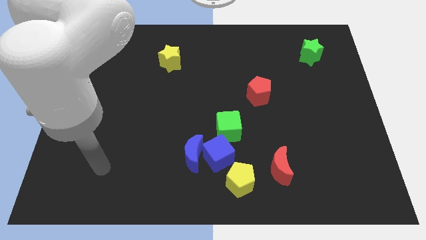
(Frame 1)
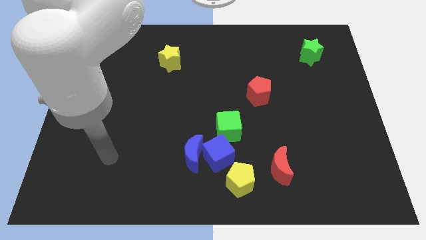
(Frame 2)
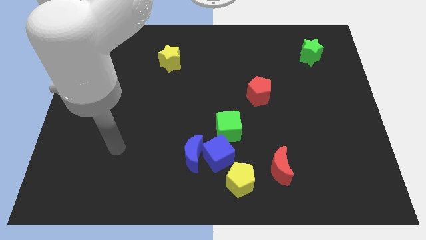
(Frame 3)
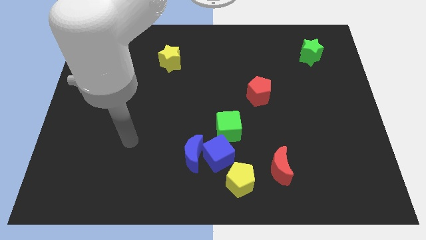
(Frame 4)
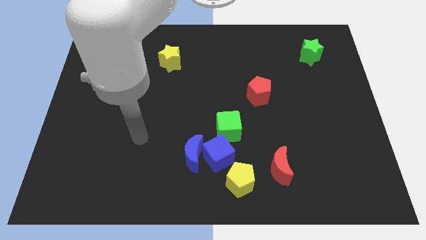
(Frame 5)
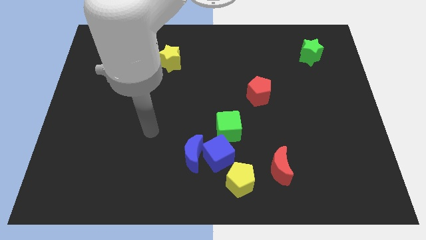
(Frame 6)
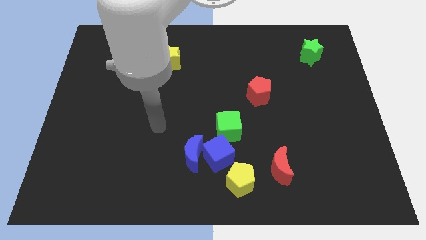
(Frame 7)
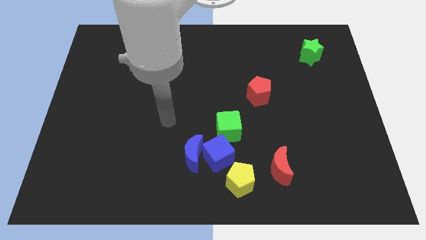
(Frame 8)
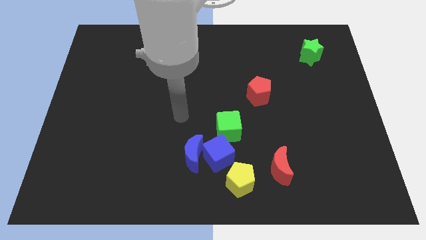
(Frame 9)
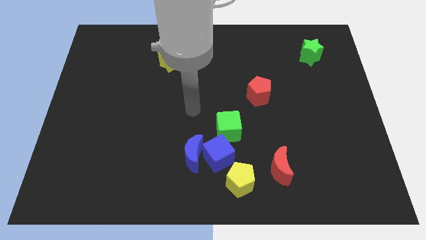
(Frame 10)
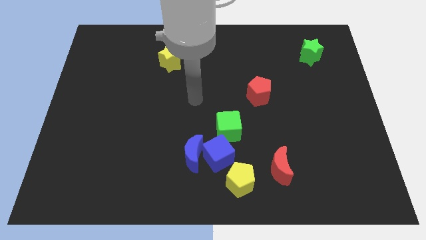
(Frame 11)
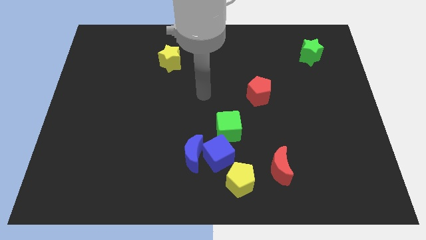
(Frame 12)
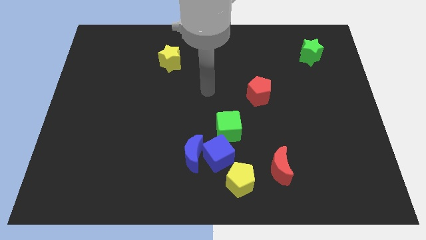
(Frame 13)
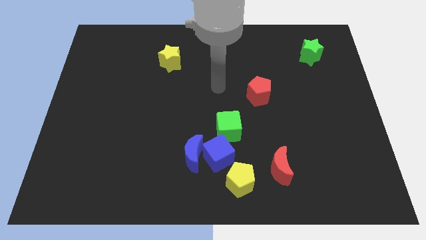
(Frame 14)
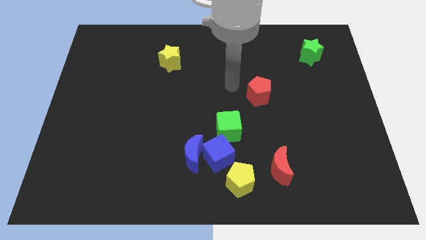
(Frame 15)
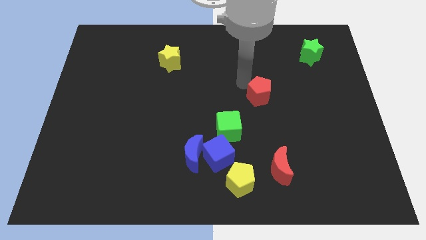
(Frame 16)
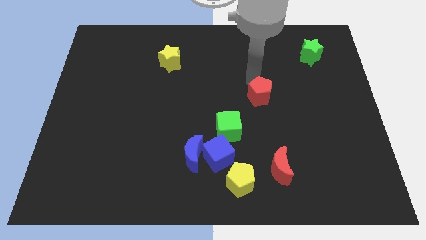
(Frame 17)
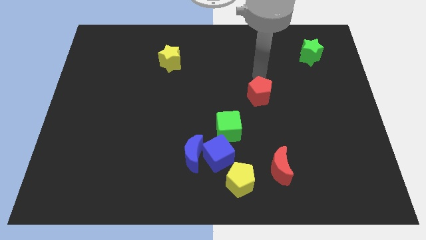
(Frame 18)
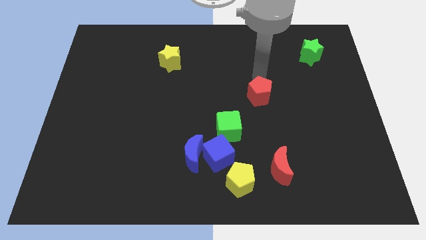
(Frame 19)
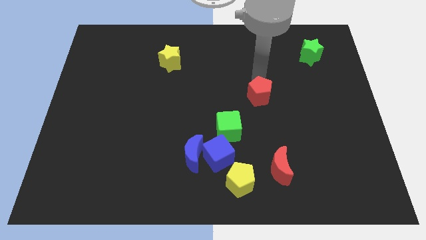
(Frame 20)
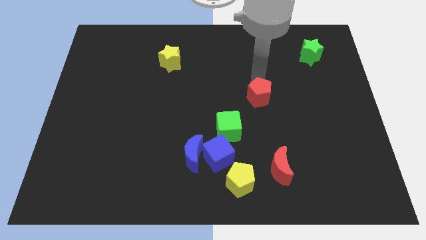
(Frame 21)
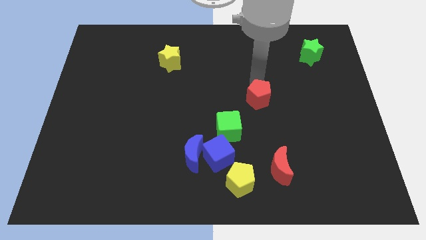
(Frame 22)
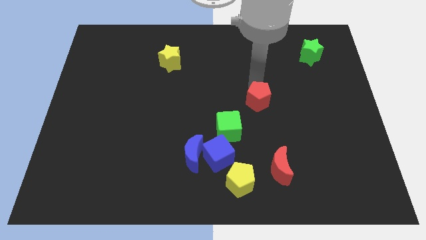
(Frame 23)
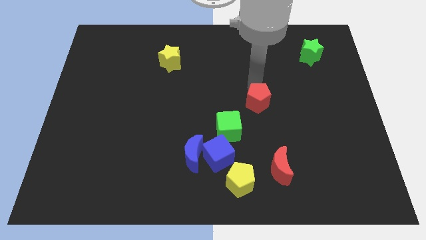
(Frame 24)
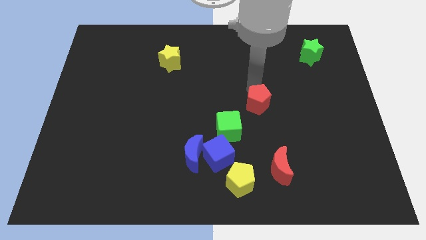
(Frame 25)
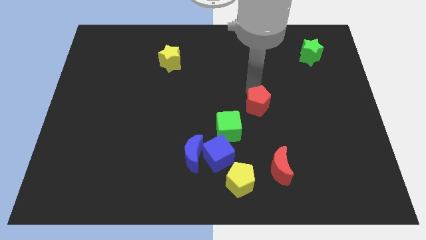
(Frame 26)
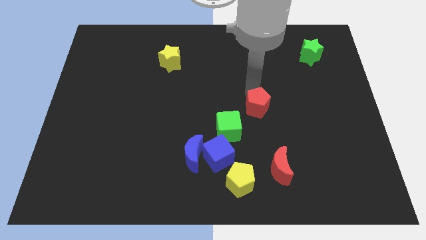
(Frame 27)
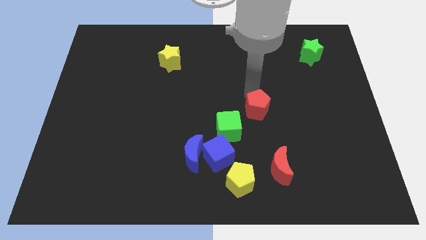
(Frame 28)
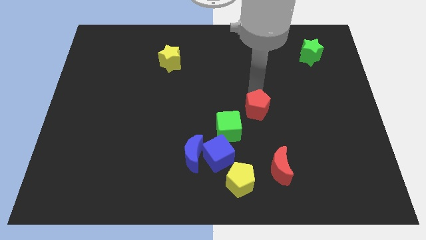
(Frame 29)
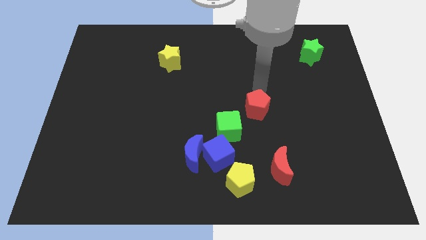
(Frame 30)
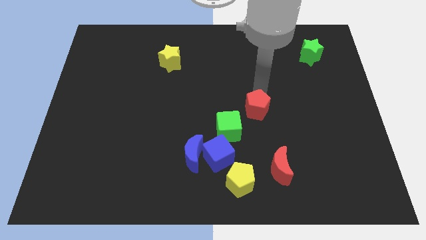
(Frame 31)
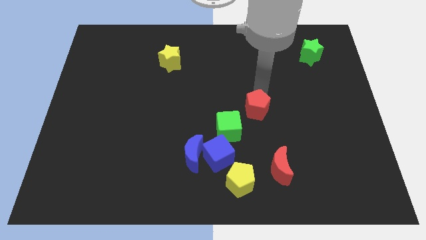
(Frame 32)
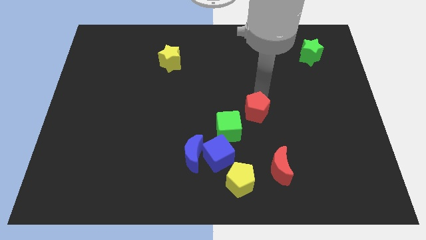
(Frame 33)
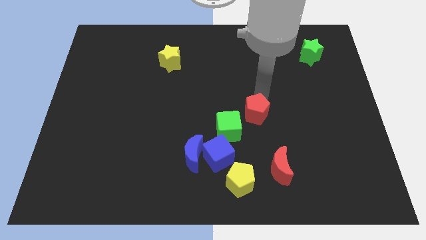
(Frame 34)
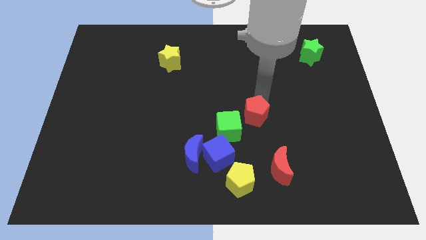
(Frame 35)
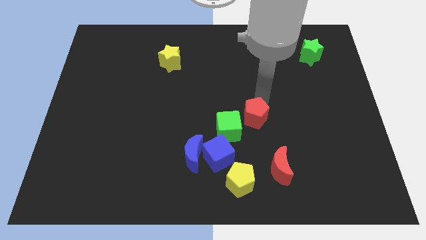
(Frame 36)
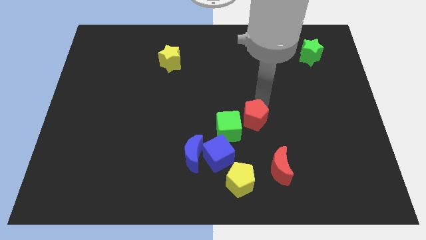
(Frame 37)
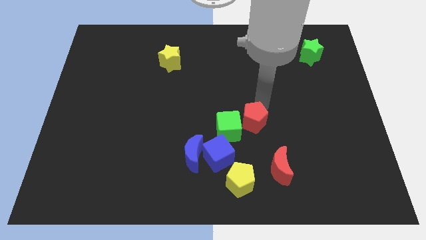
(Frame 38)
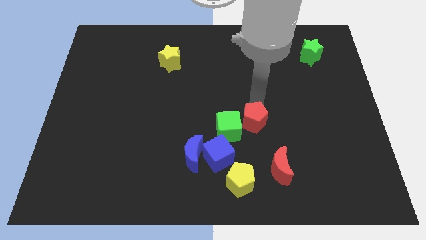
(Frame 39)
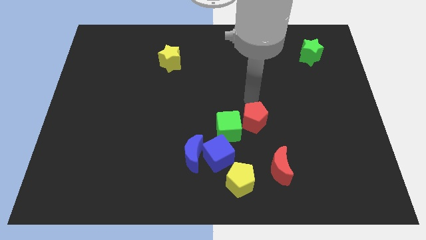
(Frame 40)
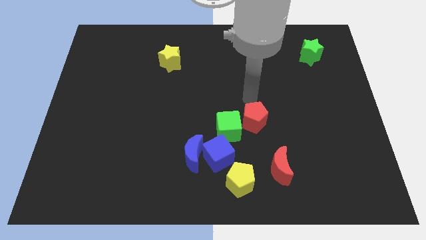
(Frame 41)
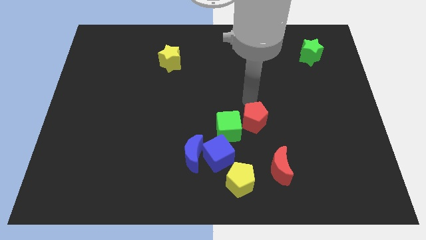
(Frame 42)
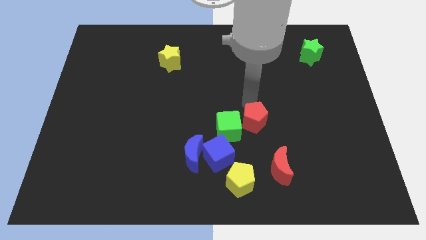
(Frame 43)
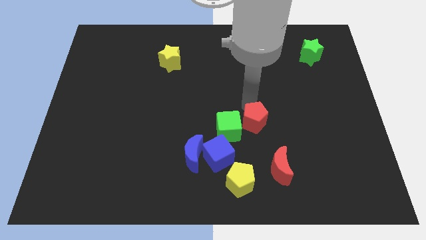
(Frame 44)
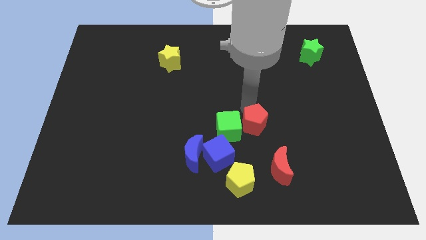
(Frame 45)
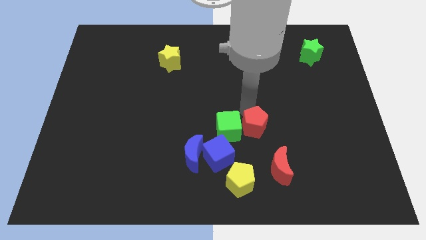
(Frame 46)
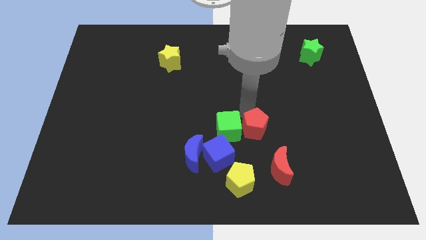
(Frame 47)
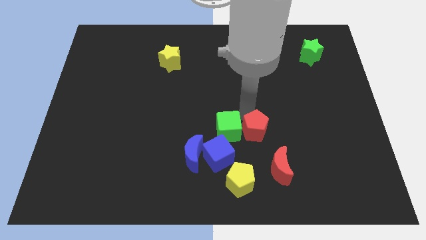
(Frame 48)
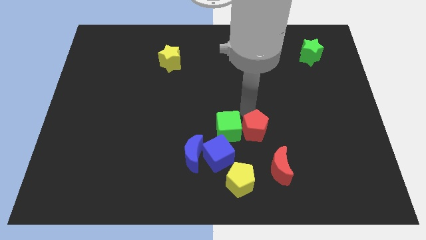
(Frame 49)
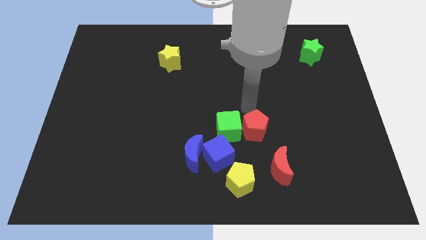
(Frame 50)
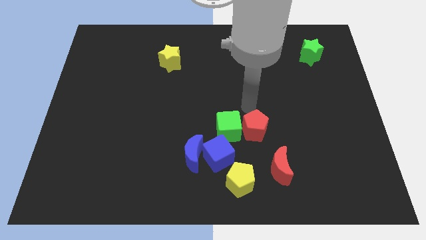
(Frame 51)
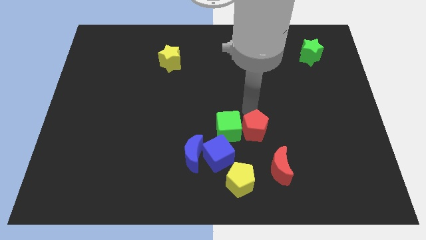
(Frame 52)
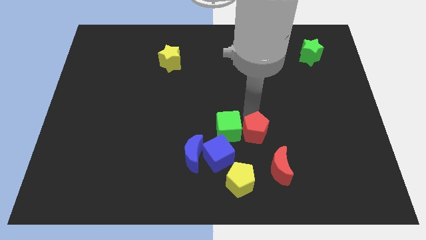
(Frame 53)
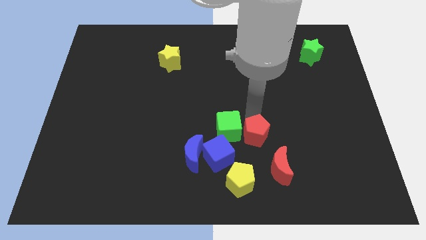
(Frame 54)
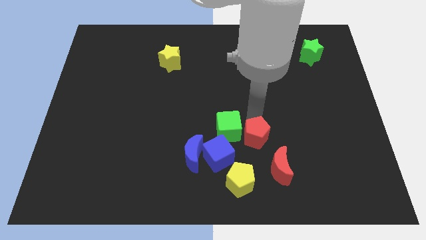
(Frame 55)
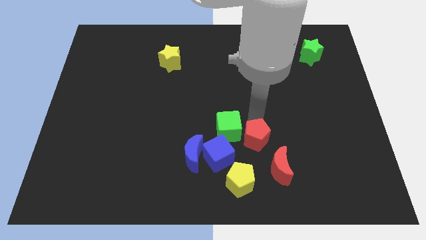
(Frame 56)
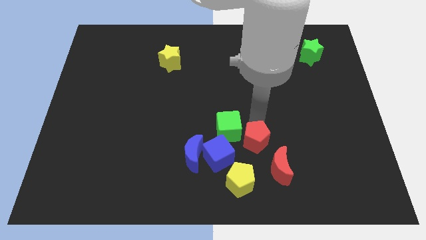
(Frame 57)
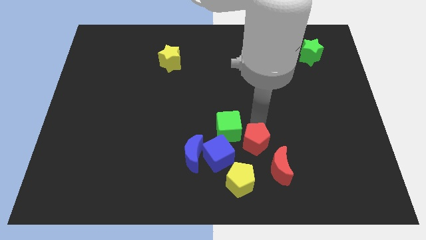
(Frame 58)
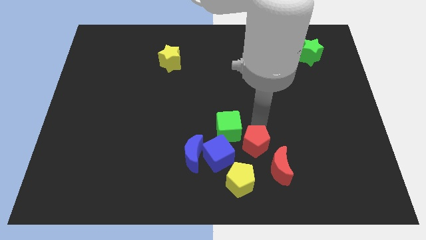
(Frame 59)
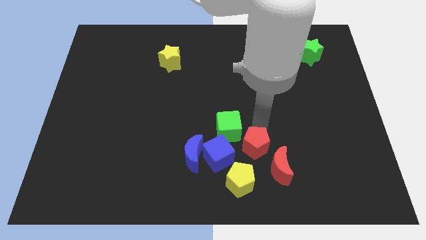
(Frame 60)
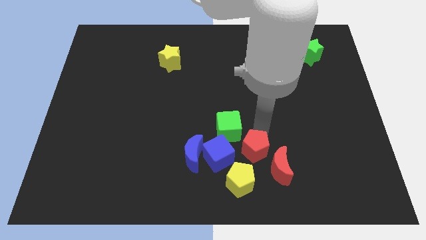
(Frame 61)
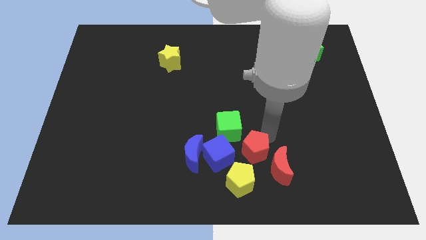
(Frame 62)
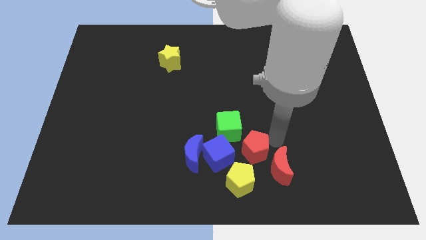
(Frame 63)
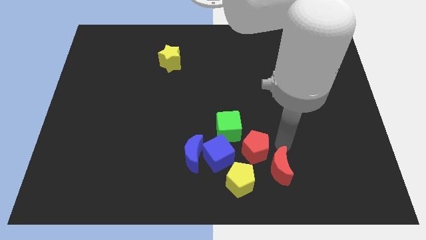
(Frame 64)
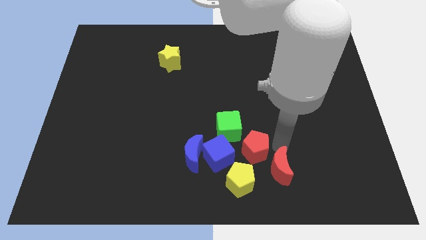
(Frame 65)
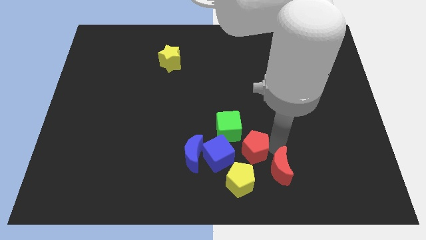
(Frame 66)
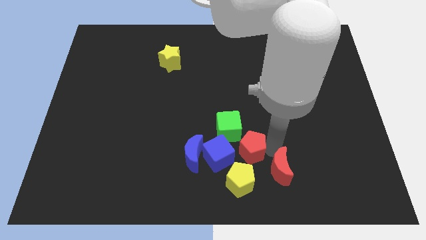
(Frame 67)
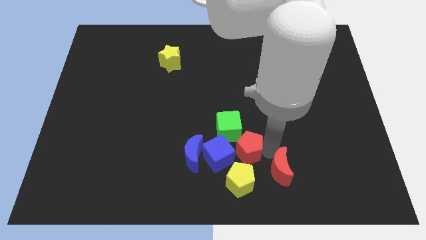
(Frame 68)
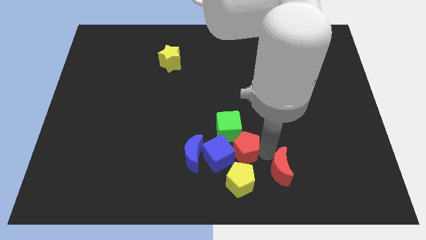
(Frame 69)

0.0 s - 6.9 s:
slide the red pentagon towards the blue cube
